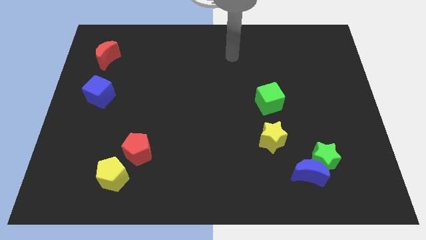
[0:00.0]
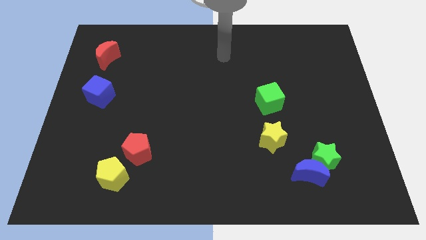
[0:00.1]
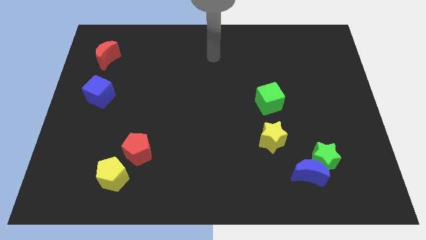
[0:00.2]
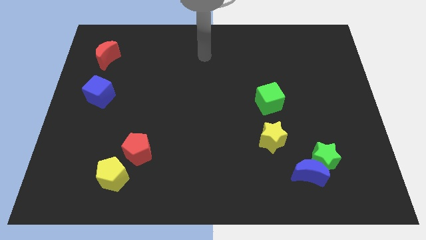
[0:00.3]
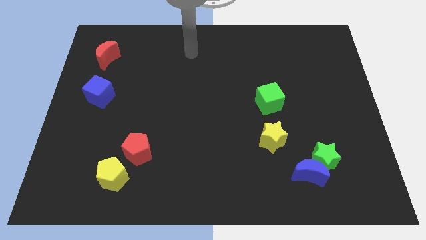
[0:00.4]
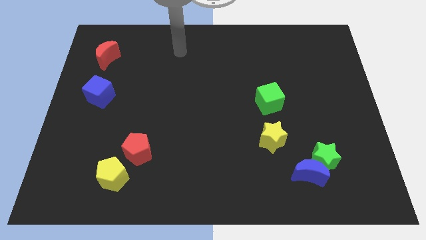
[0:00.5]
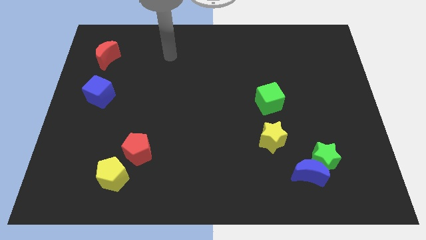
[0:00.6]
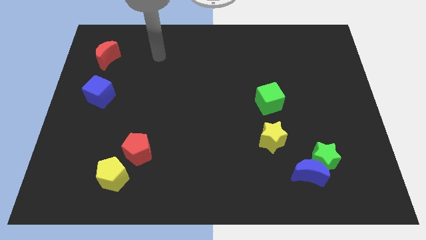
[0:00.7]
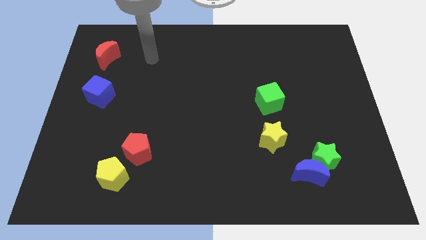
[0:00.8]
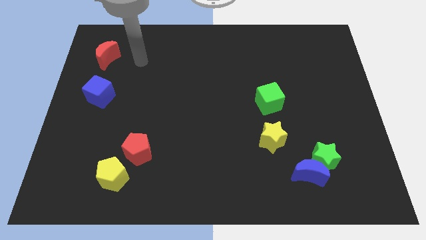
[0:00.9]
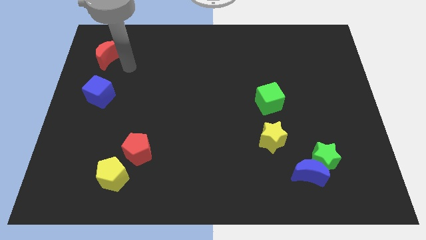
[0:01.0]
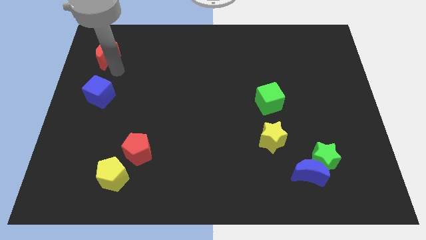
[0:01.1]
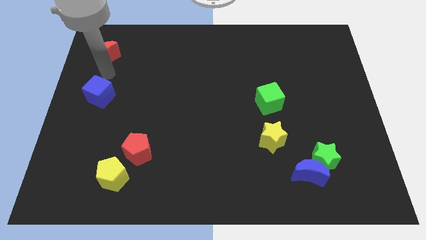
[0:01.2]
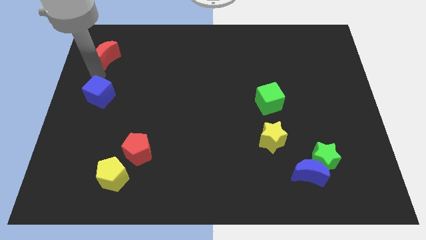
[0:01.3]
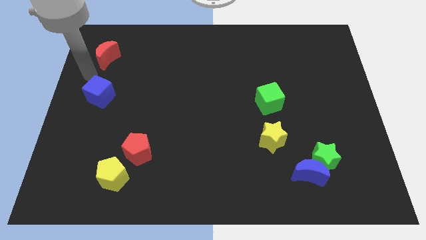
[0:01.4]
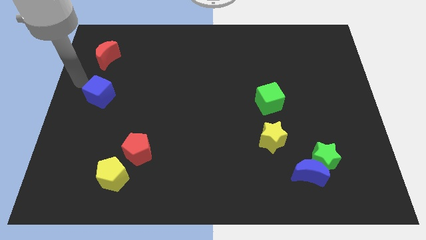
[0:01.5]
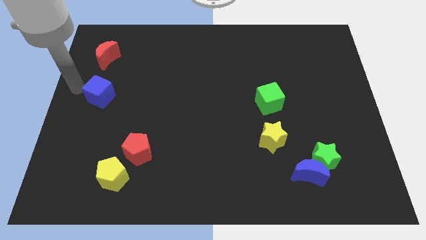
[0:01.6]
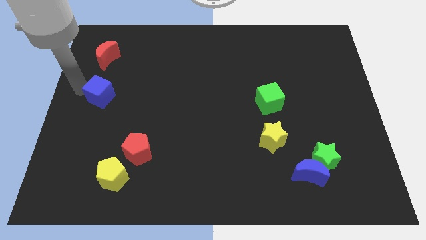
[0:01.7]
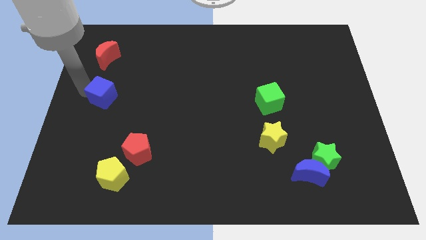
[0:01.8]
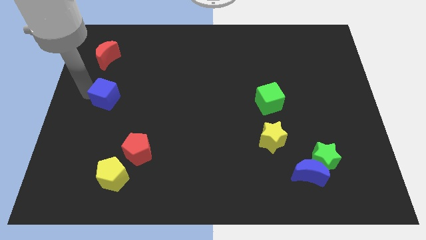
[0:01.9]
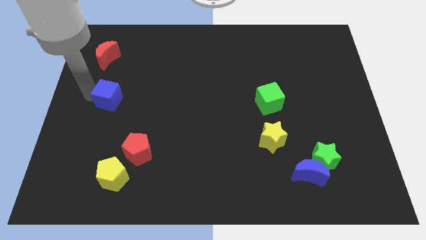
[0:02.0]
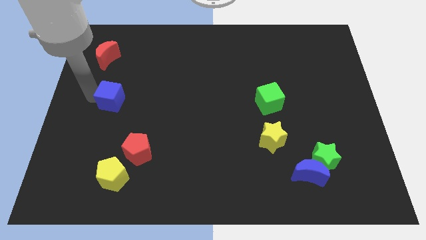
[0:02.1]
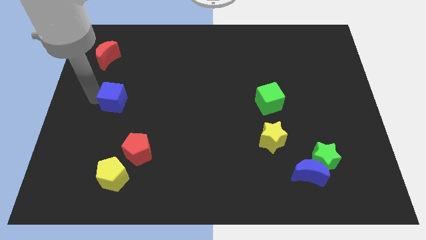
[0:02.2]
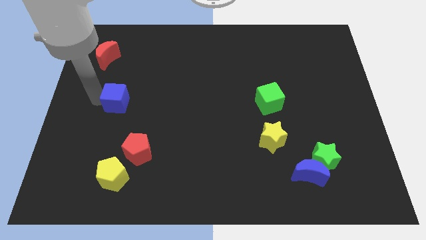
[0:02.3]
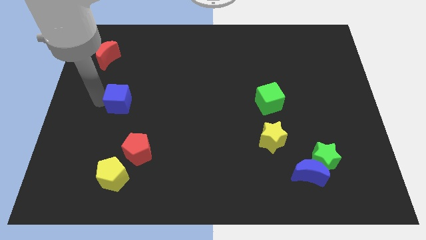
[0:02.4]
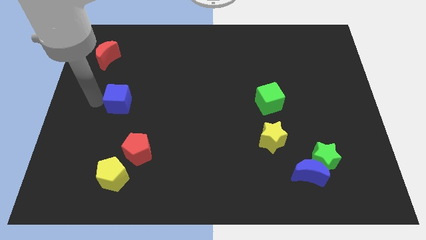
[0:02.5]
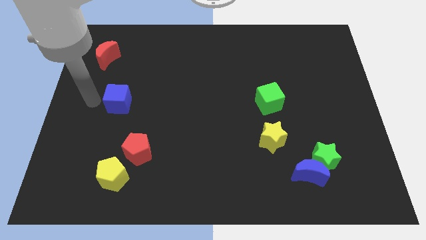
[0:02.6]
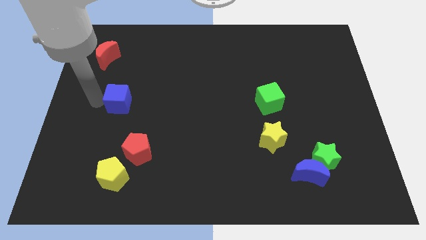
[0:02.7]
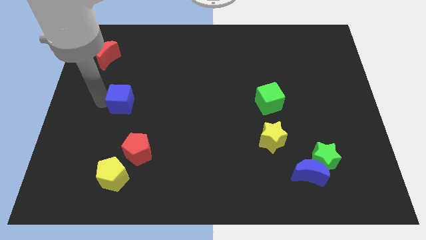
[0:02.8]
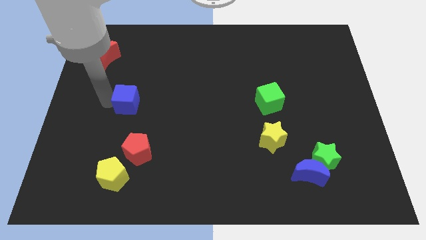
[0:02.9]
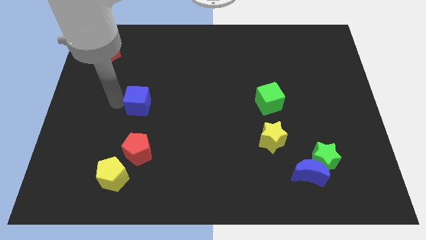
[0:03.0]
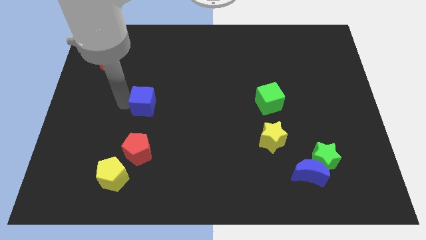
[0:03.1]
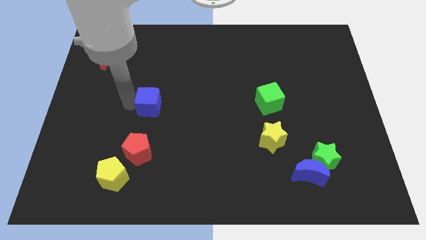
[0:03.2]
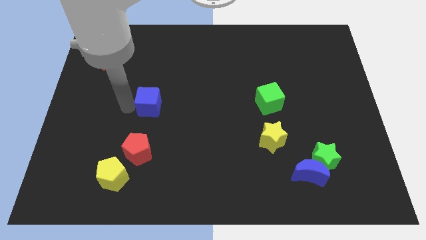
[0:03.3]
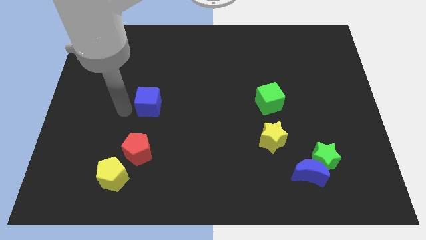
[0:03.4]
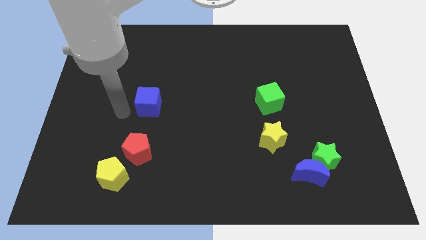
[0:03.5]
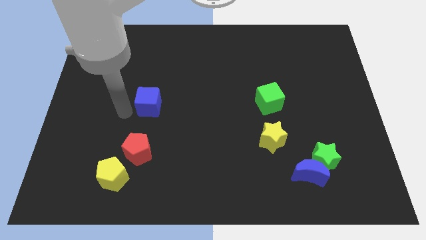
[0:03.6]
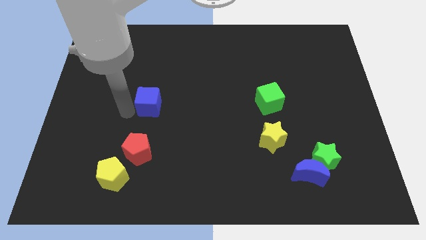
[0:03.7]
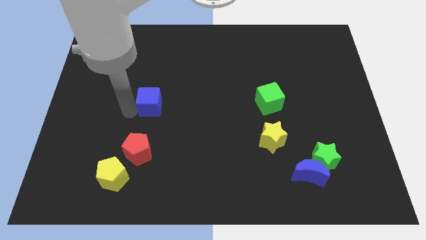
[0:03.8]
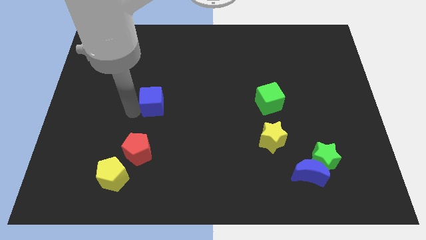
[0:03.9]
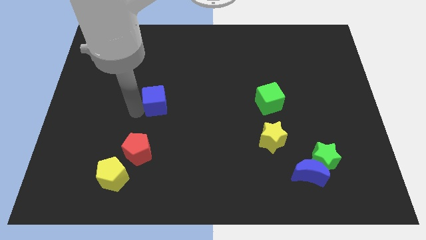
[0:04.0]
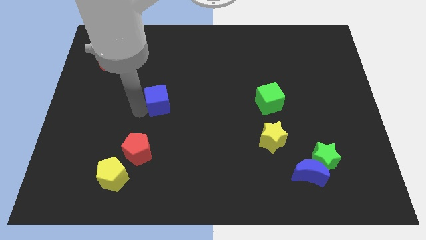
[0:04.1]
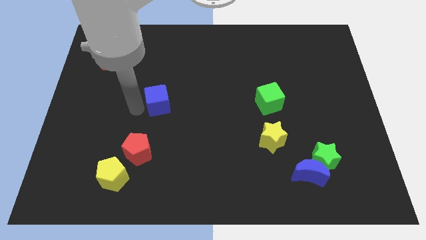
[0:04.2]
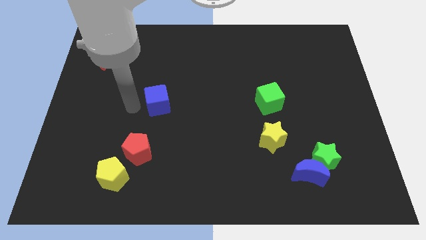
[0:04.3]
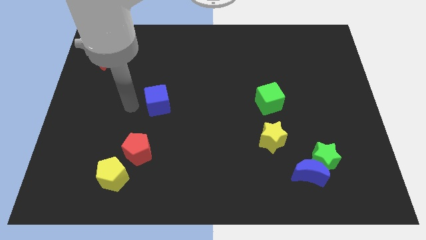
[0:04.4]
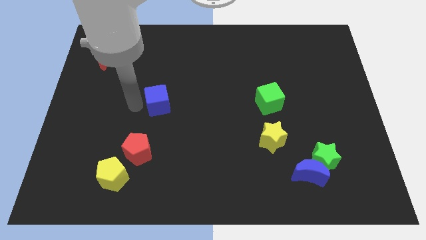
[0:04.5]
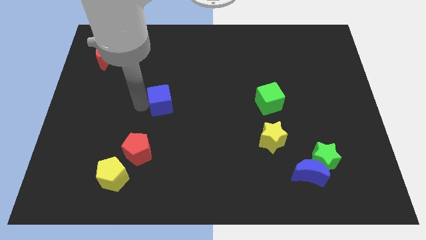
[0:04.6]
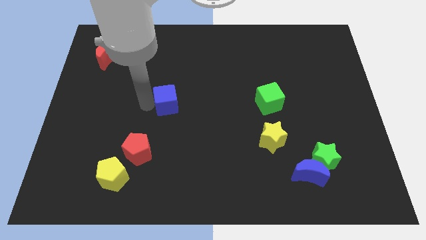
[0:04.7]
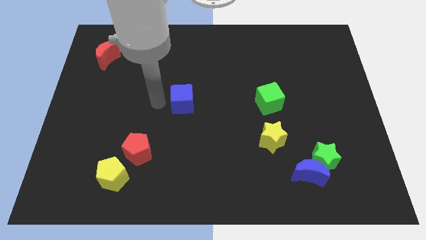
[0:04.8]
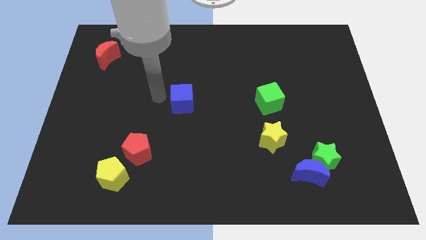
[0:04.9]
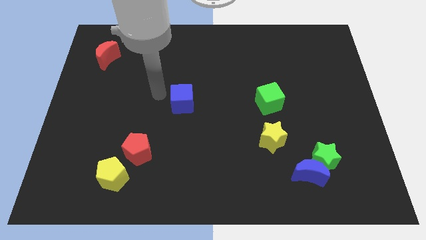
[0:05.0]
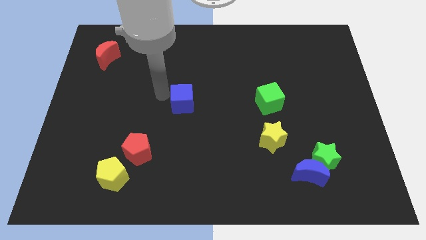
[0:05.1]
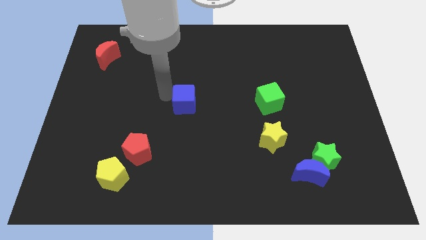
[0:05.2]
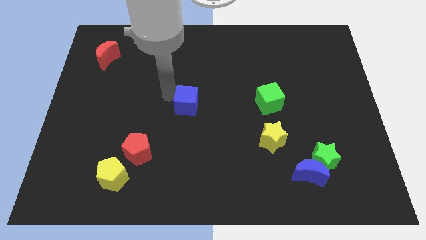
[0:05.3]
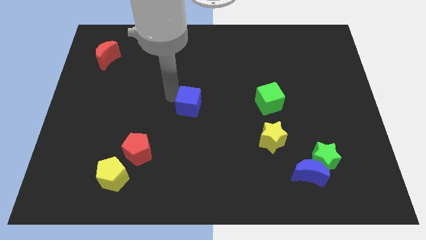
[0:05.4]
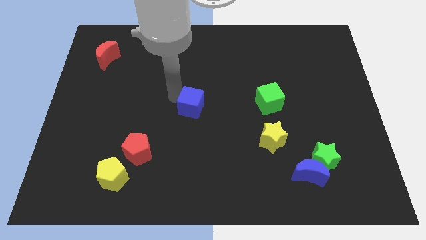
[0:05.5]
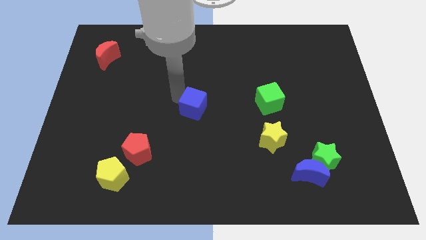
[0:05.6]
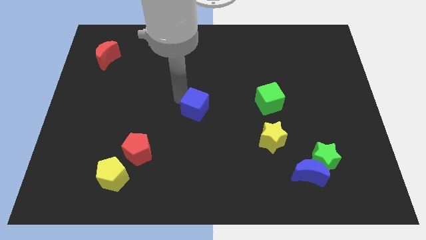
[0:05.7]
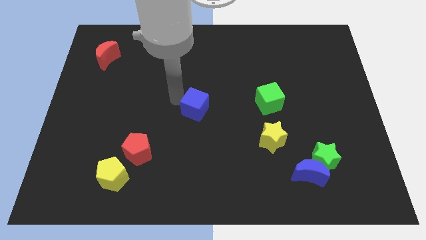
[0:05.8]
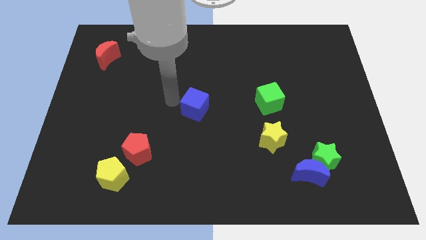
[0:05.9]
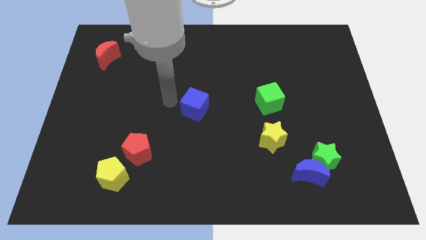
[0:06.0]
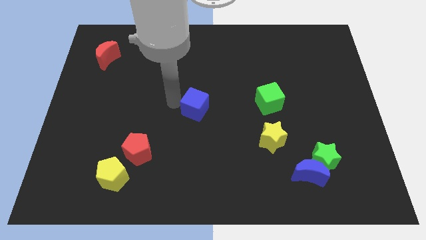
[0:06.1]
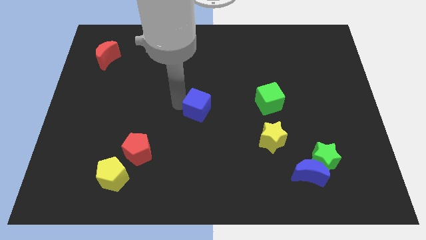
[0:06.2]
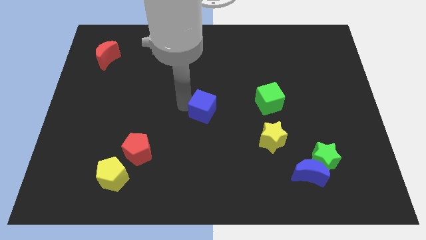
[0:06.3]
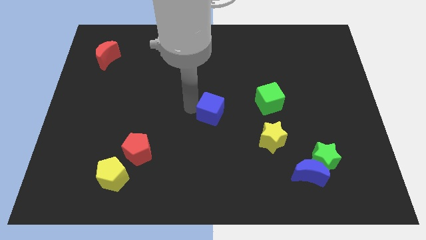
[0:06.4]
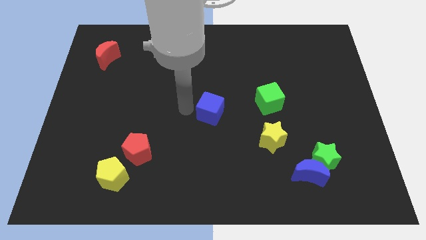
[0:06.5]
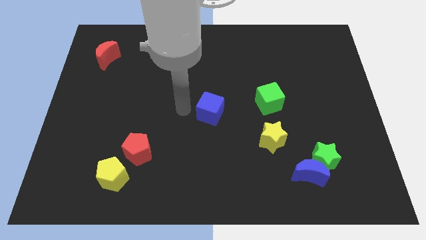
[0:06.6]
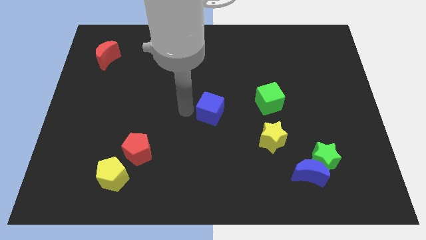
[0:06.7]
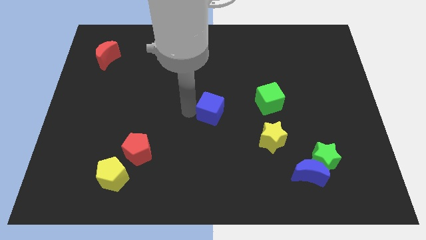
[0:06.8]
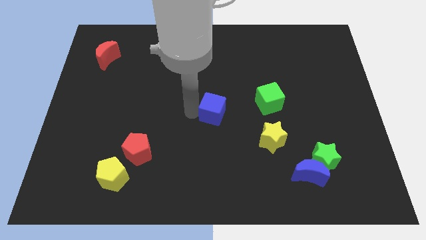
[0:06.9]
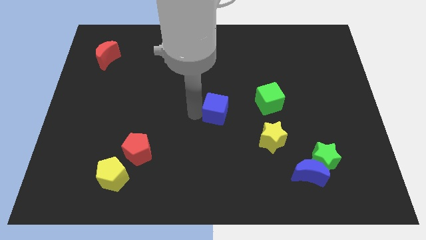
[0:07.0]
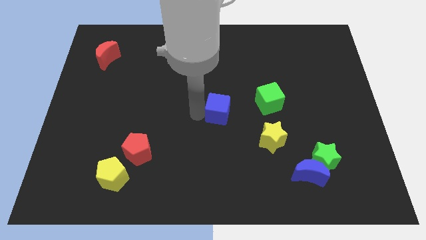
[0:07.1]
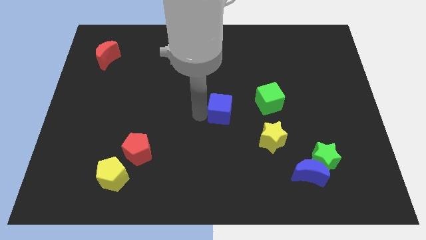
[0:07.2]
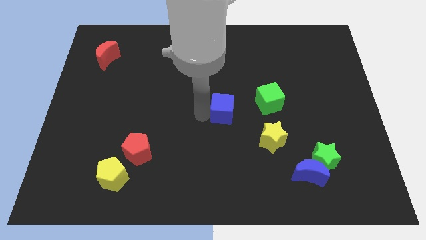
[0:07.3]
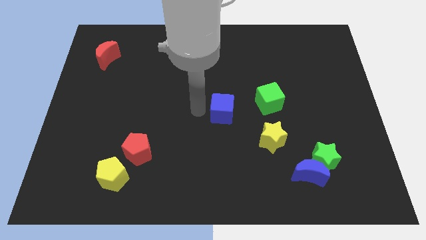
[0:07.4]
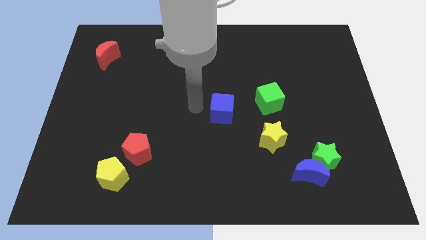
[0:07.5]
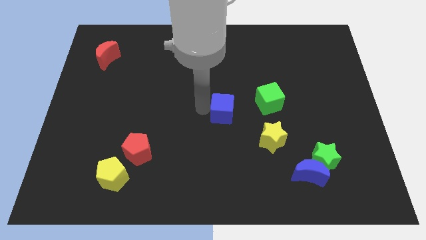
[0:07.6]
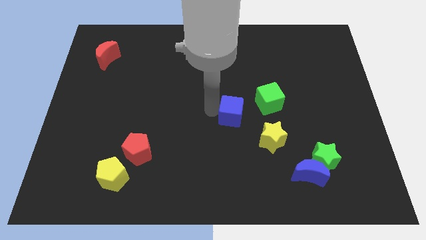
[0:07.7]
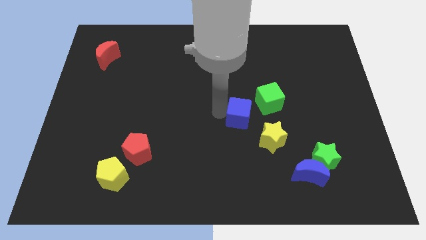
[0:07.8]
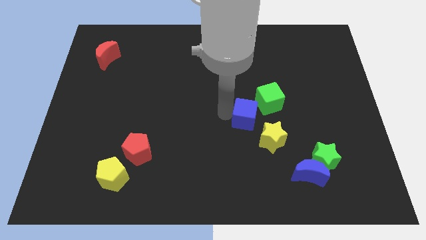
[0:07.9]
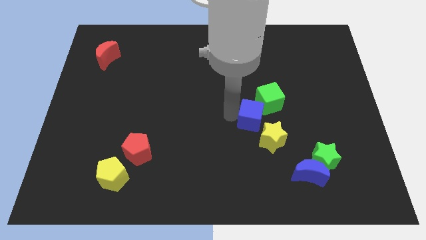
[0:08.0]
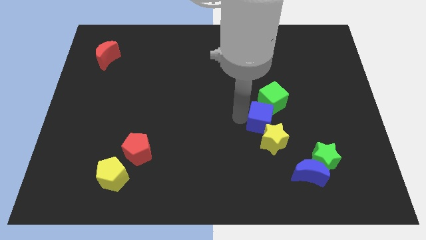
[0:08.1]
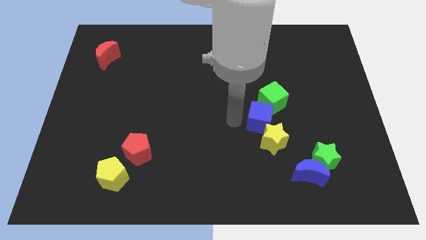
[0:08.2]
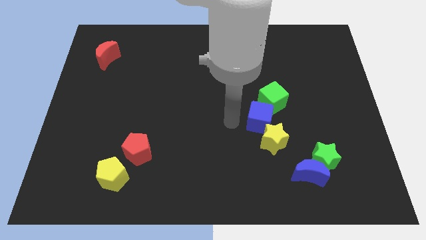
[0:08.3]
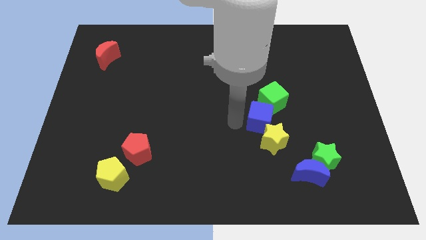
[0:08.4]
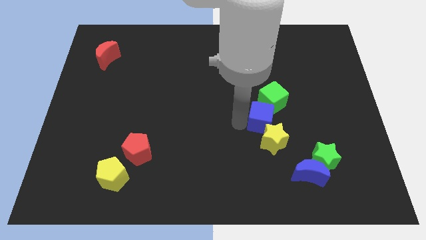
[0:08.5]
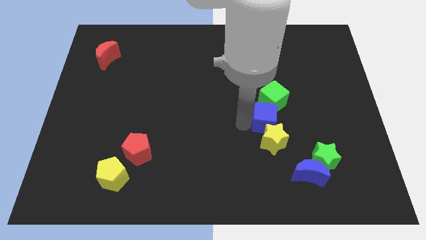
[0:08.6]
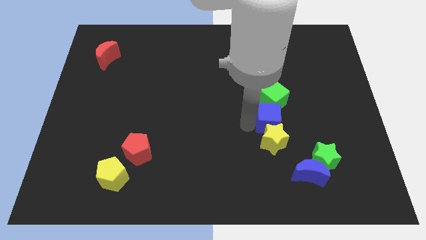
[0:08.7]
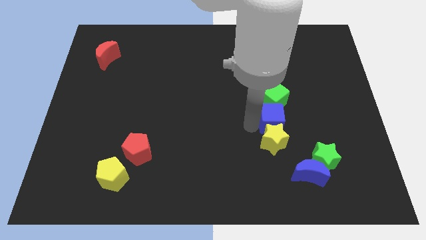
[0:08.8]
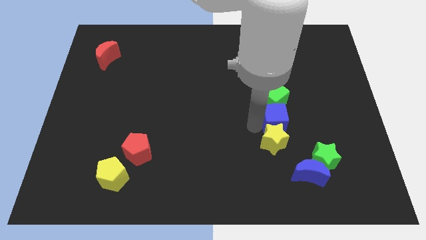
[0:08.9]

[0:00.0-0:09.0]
push the blue cube diagonally down and to the right of the green cube
